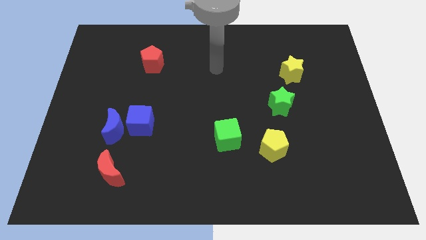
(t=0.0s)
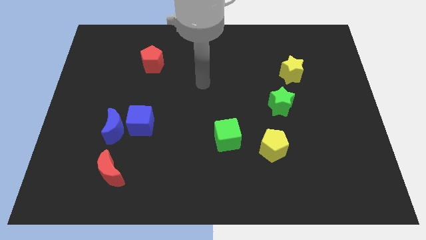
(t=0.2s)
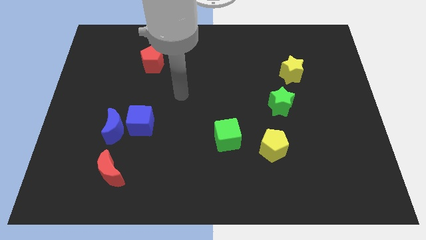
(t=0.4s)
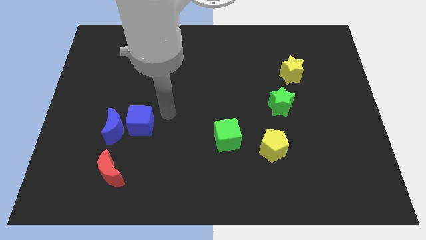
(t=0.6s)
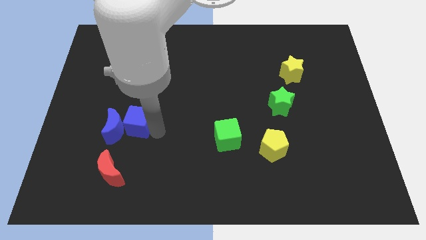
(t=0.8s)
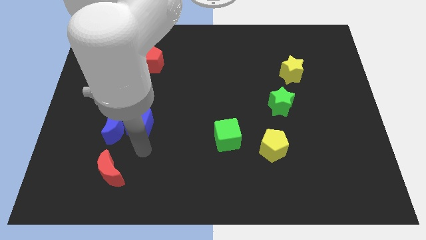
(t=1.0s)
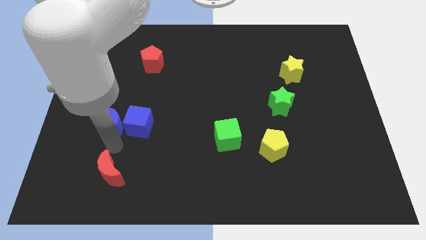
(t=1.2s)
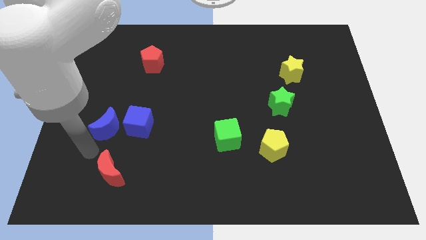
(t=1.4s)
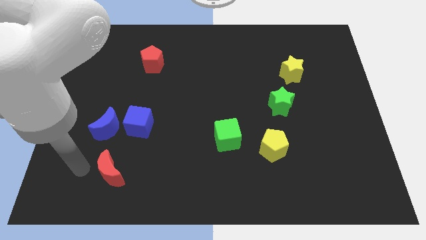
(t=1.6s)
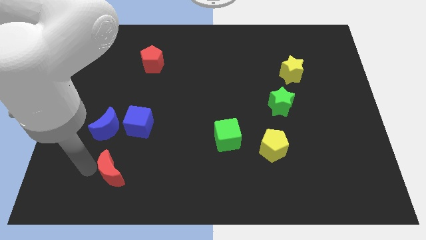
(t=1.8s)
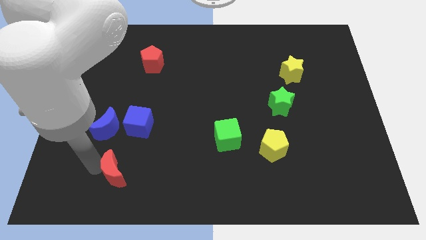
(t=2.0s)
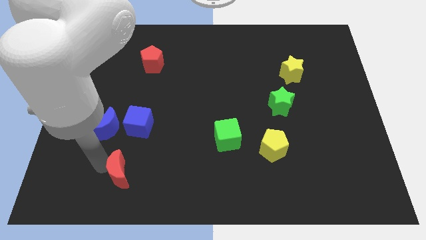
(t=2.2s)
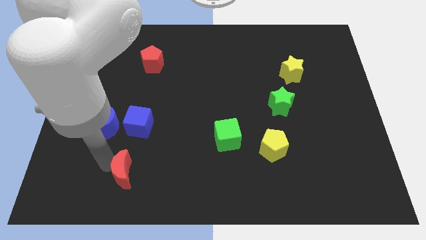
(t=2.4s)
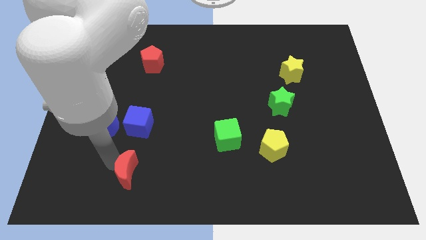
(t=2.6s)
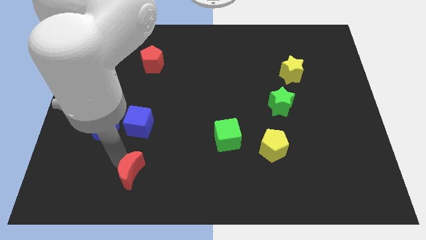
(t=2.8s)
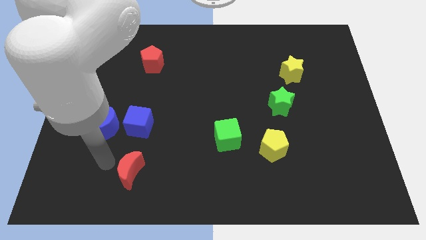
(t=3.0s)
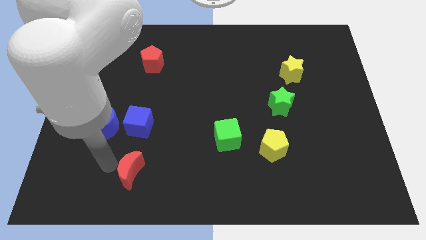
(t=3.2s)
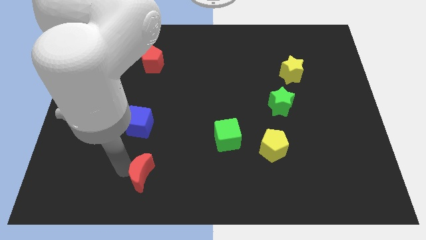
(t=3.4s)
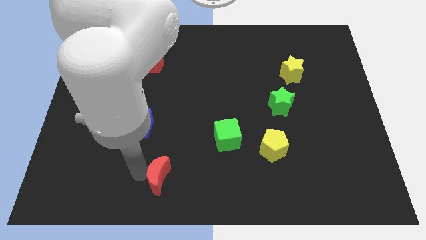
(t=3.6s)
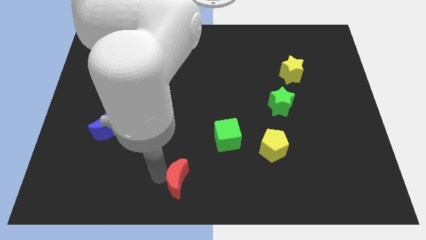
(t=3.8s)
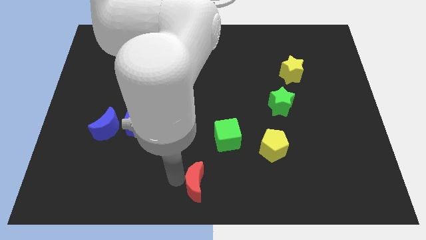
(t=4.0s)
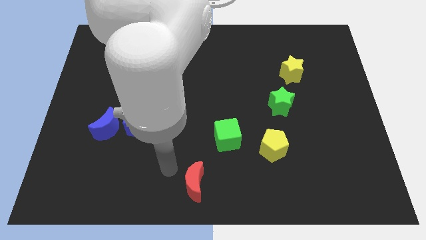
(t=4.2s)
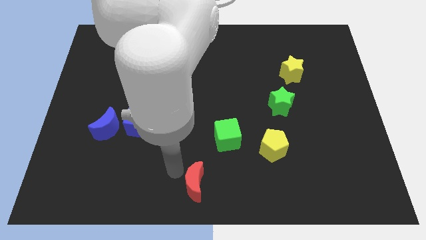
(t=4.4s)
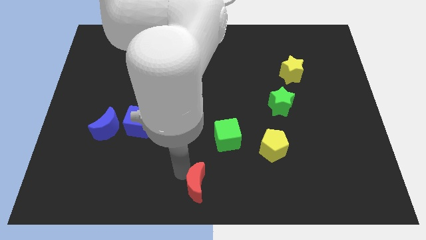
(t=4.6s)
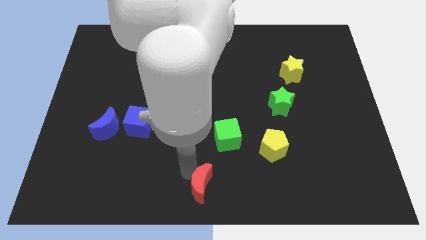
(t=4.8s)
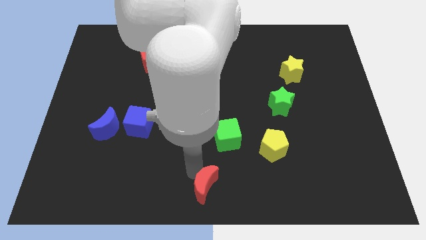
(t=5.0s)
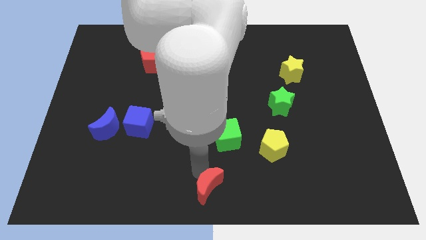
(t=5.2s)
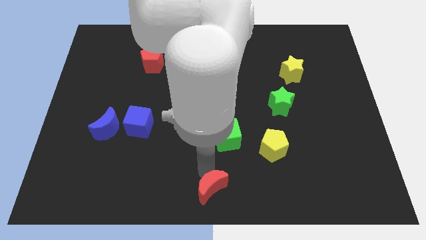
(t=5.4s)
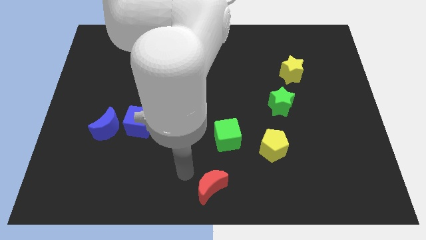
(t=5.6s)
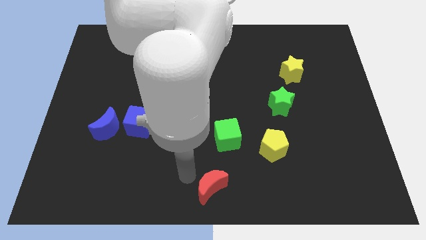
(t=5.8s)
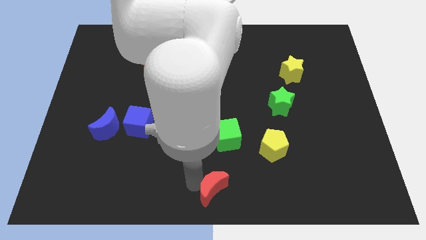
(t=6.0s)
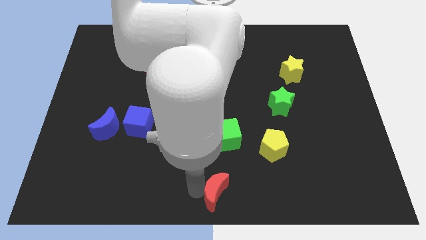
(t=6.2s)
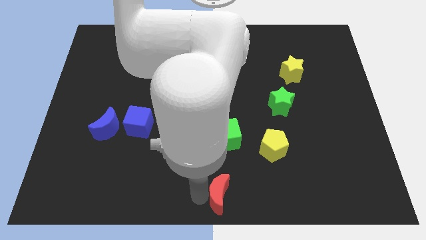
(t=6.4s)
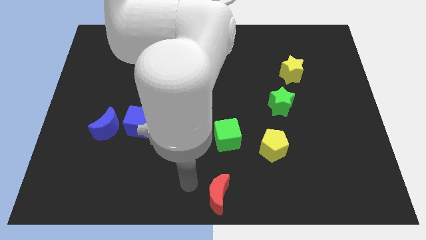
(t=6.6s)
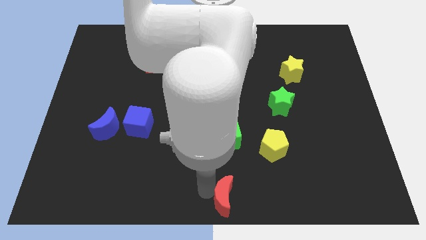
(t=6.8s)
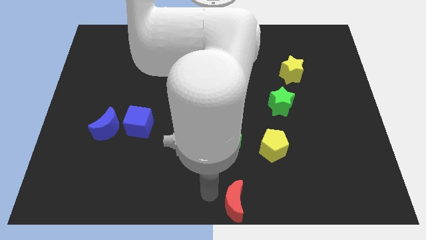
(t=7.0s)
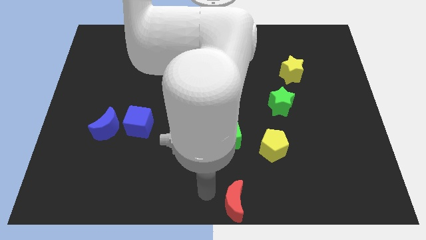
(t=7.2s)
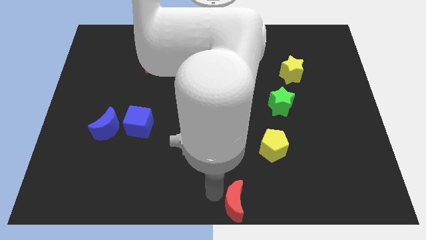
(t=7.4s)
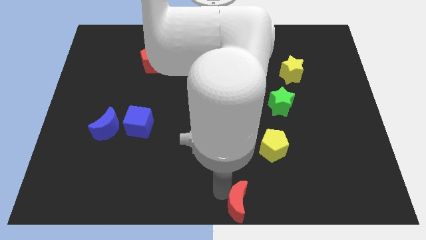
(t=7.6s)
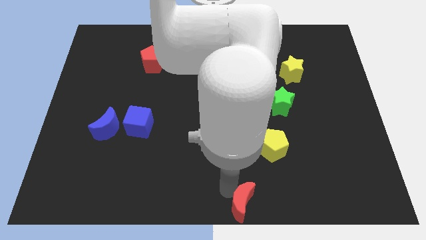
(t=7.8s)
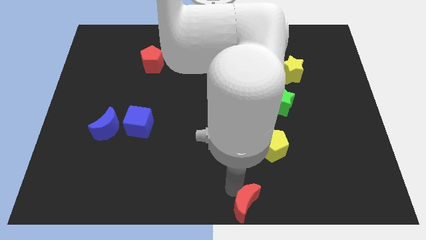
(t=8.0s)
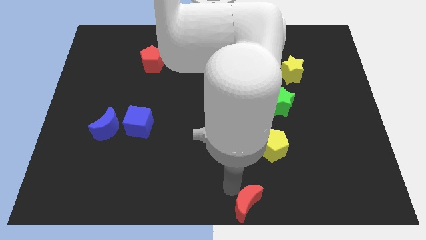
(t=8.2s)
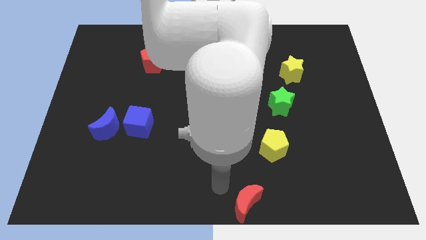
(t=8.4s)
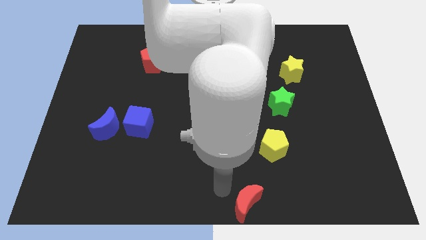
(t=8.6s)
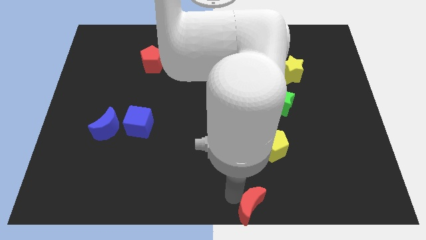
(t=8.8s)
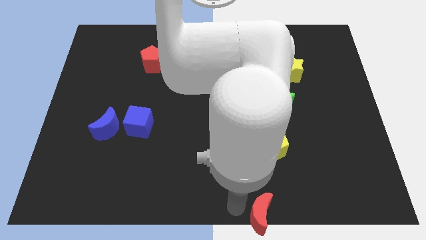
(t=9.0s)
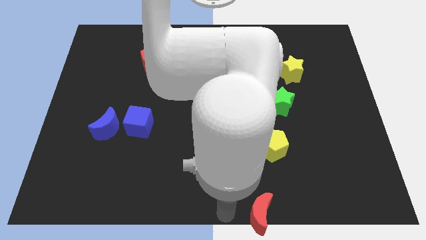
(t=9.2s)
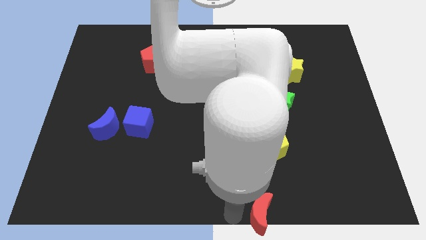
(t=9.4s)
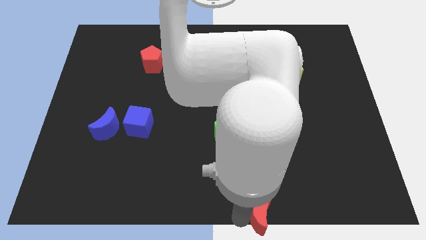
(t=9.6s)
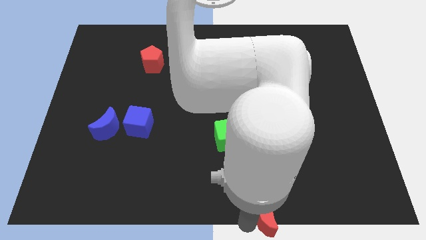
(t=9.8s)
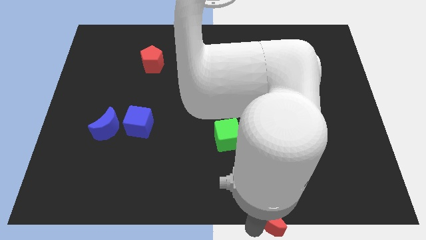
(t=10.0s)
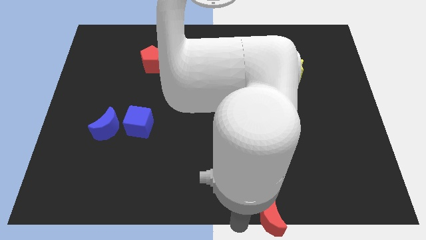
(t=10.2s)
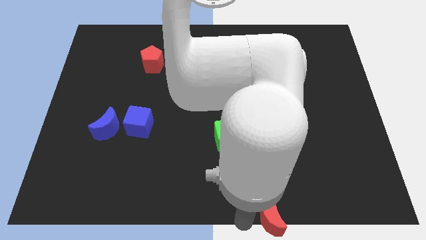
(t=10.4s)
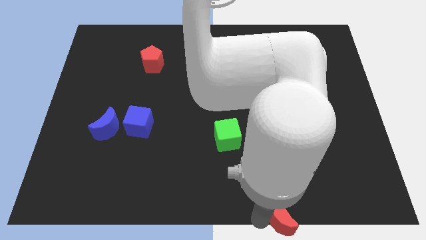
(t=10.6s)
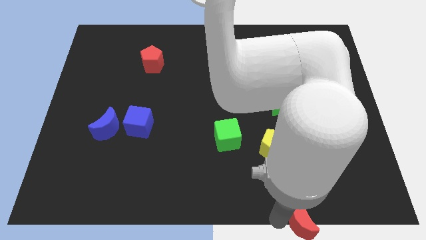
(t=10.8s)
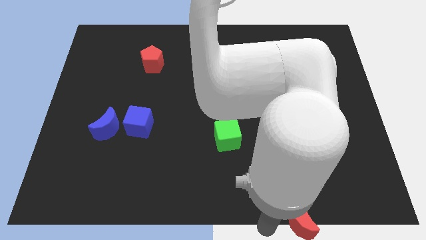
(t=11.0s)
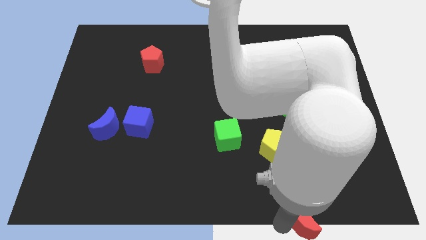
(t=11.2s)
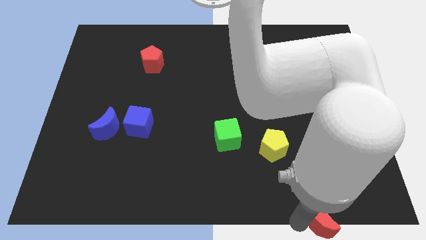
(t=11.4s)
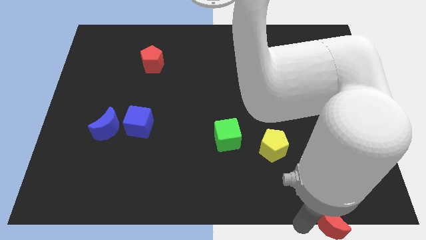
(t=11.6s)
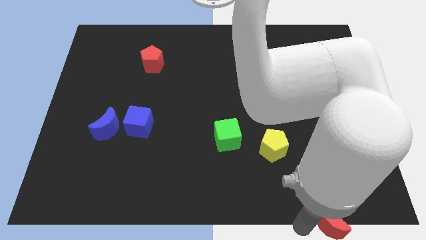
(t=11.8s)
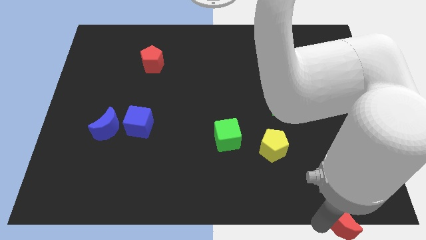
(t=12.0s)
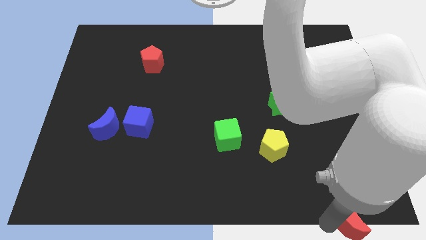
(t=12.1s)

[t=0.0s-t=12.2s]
put the red moon to the bottom right of the board

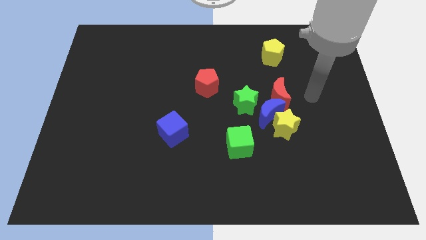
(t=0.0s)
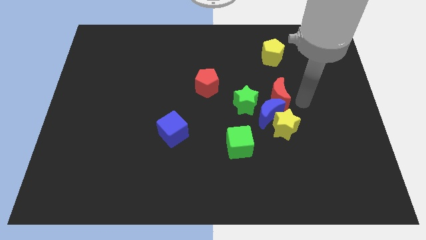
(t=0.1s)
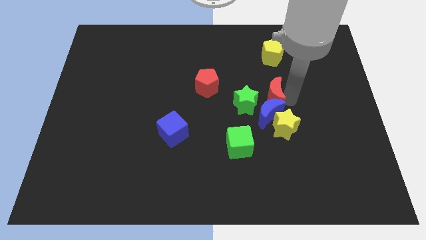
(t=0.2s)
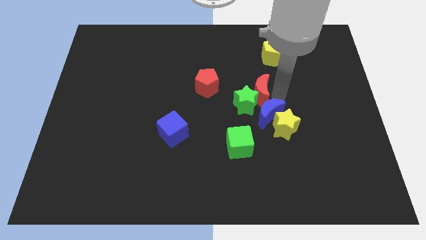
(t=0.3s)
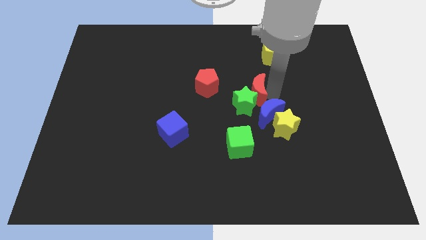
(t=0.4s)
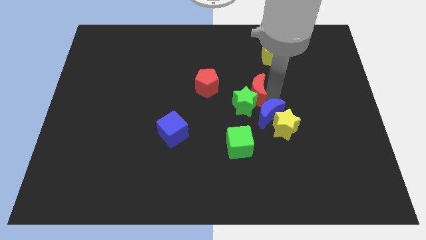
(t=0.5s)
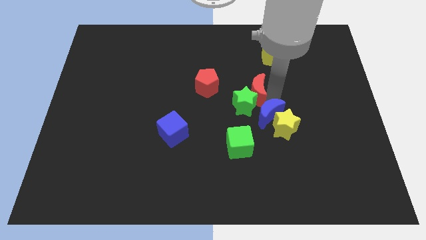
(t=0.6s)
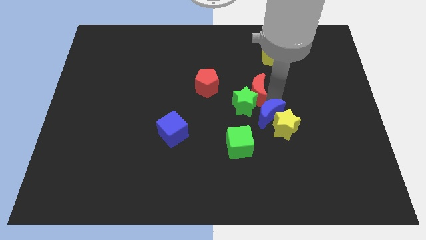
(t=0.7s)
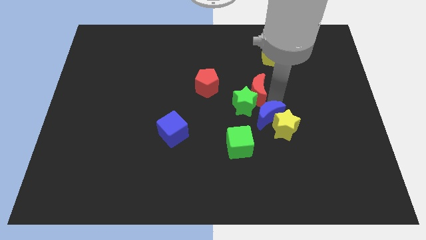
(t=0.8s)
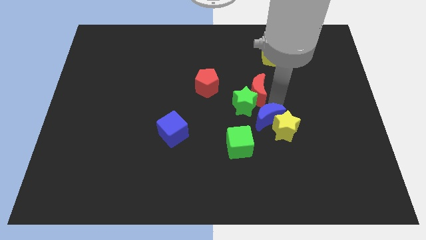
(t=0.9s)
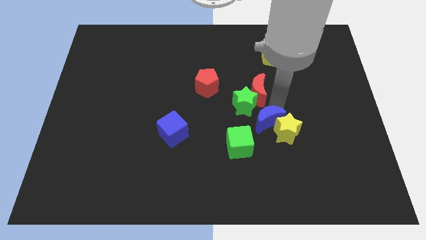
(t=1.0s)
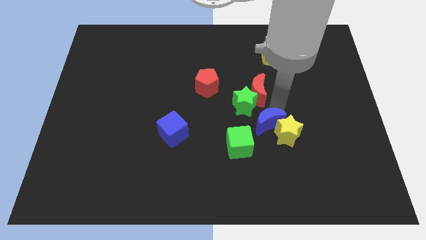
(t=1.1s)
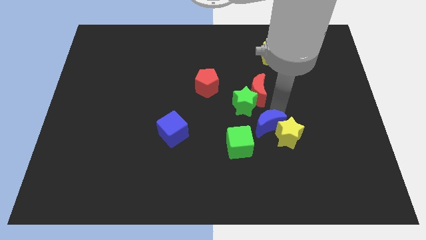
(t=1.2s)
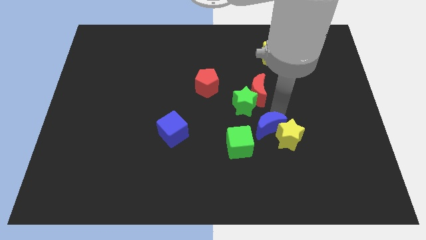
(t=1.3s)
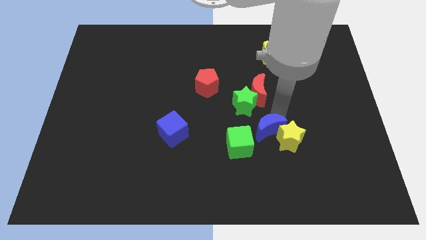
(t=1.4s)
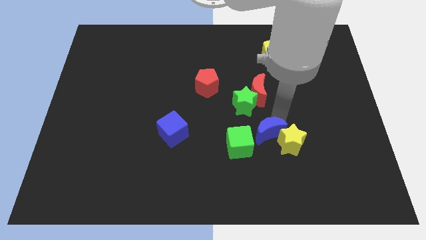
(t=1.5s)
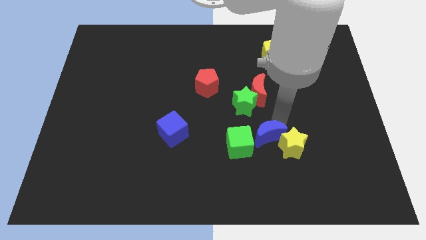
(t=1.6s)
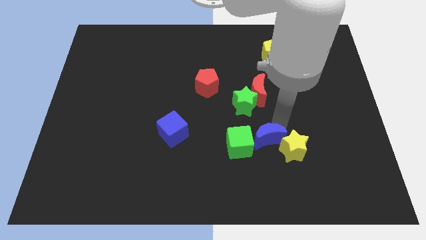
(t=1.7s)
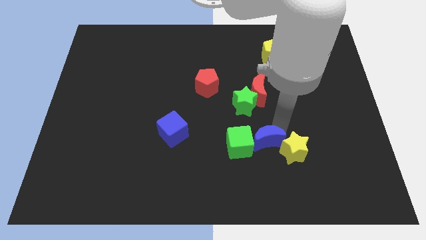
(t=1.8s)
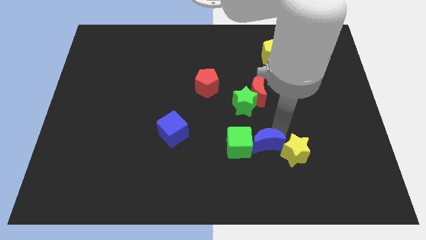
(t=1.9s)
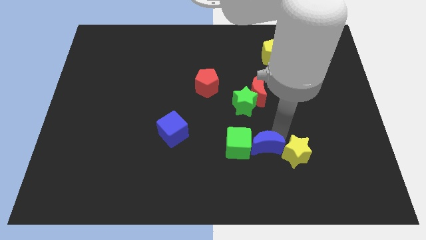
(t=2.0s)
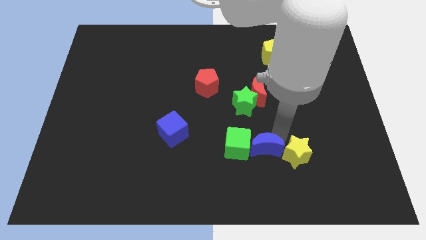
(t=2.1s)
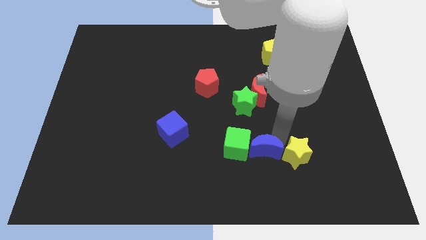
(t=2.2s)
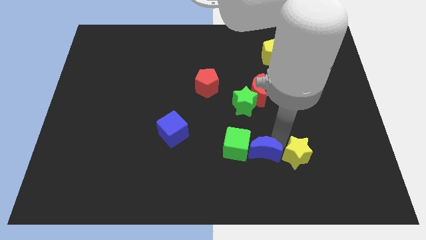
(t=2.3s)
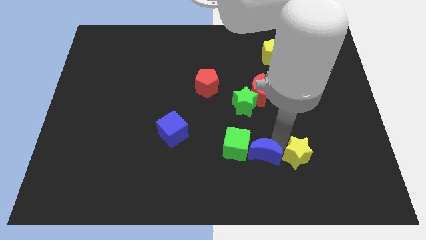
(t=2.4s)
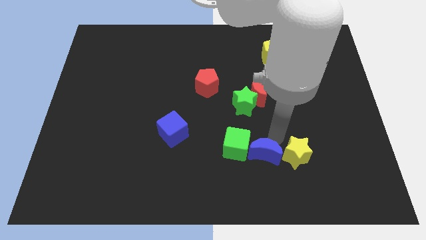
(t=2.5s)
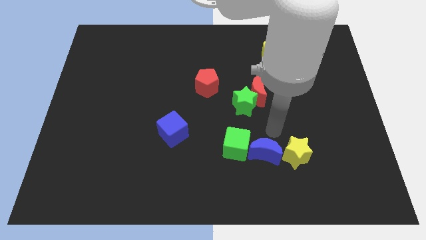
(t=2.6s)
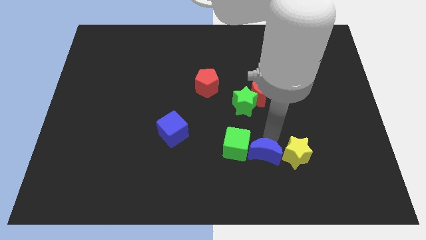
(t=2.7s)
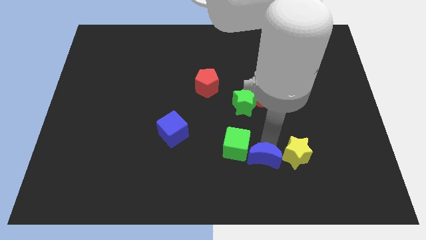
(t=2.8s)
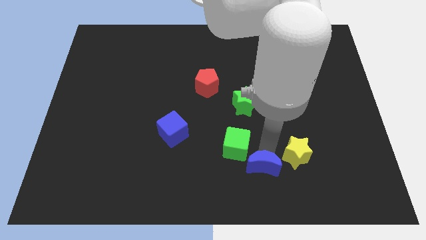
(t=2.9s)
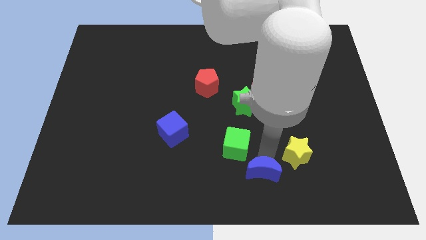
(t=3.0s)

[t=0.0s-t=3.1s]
slide the blue moon to the bottom side
